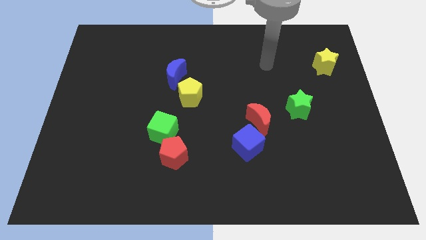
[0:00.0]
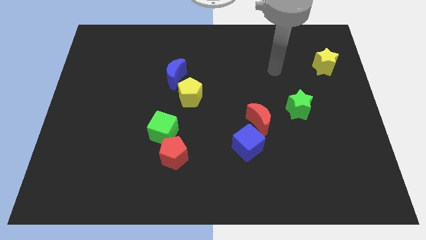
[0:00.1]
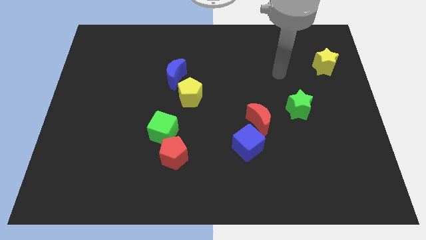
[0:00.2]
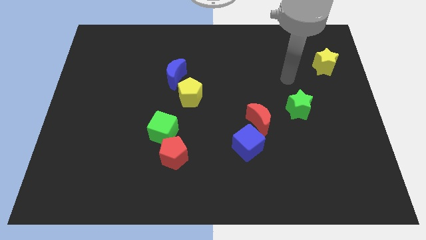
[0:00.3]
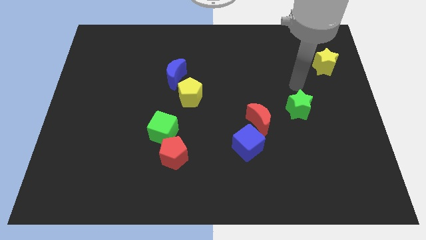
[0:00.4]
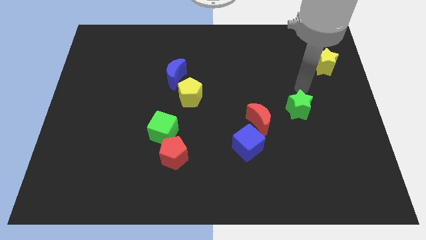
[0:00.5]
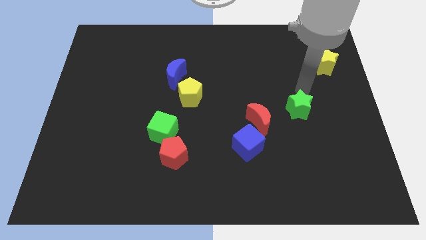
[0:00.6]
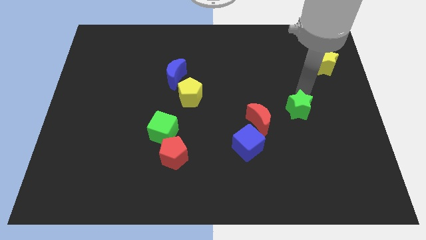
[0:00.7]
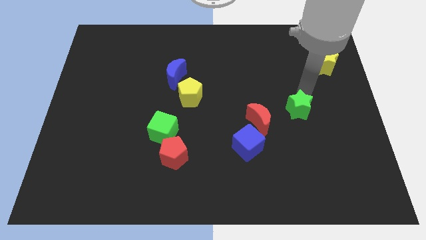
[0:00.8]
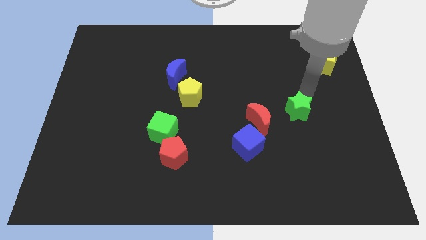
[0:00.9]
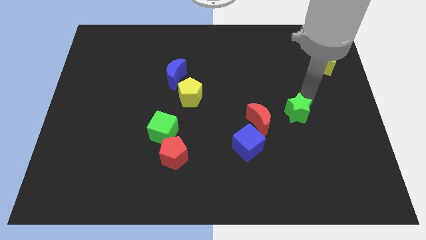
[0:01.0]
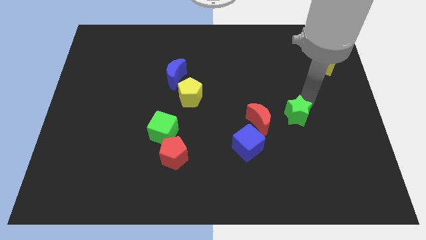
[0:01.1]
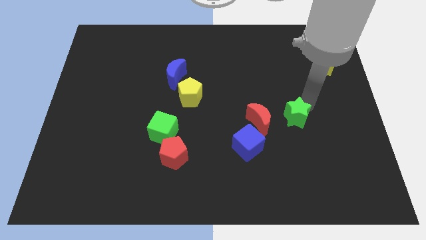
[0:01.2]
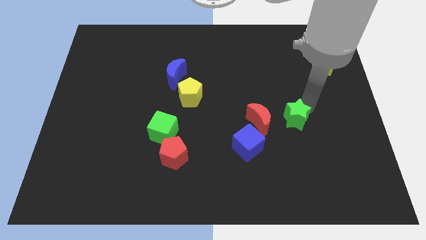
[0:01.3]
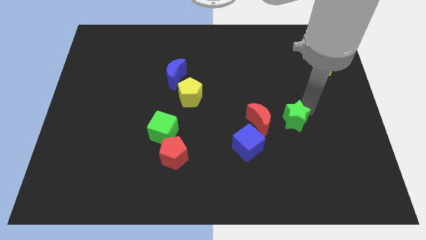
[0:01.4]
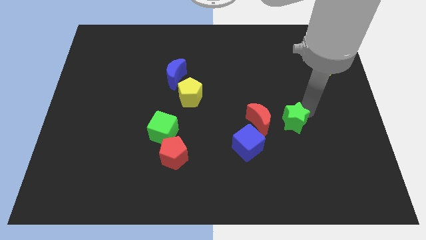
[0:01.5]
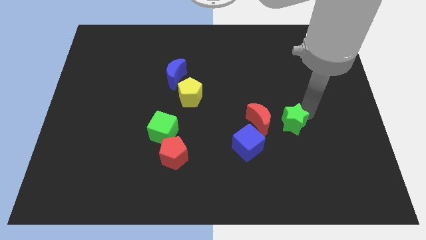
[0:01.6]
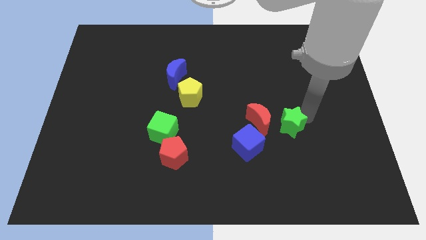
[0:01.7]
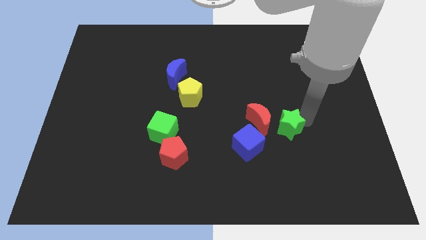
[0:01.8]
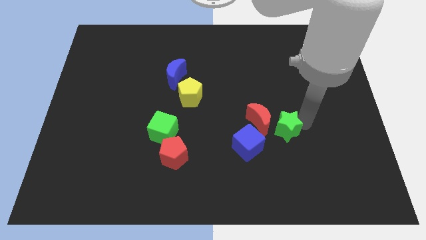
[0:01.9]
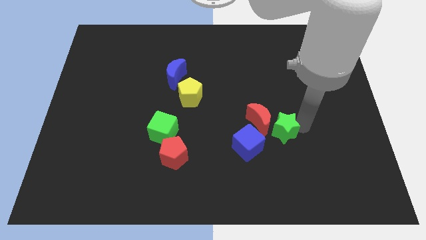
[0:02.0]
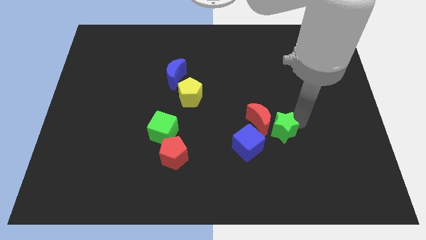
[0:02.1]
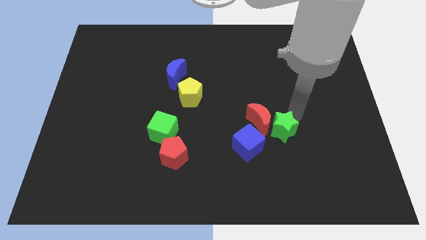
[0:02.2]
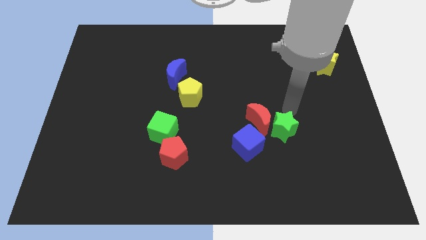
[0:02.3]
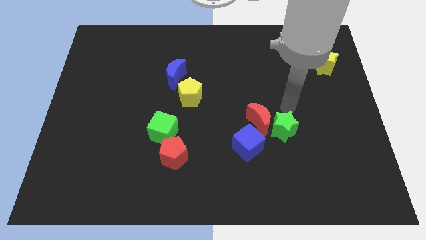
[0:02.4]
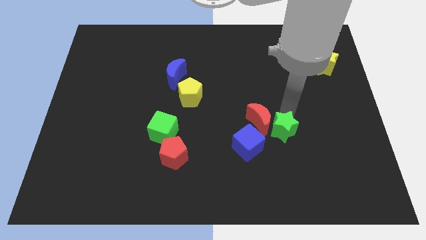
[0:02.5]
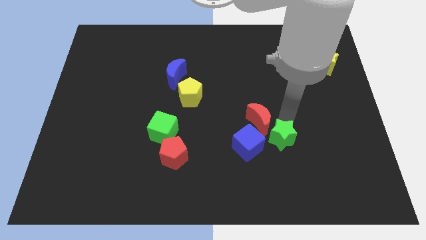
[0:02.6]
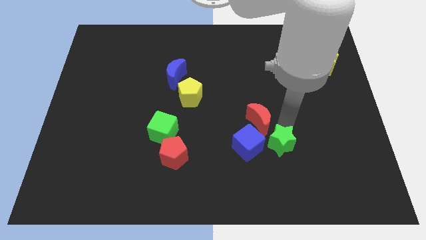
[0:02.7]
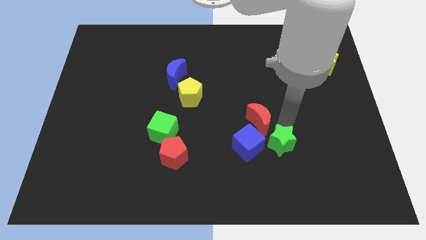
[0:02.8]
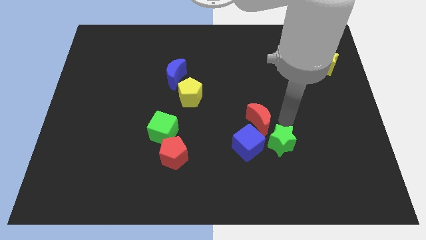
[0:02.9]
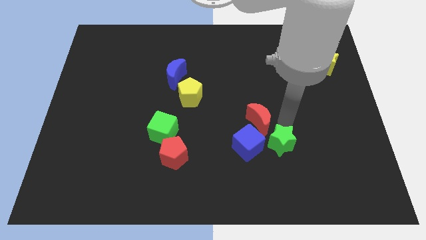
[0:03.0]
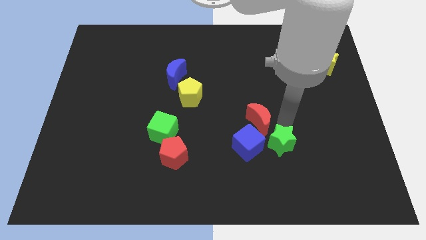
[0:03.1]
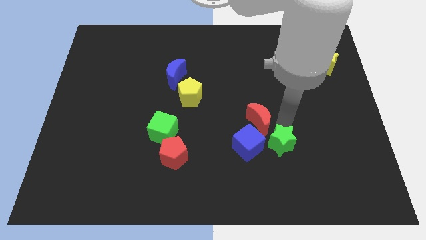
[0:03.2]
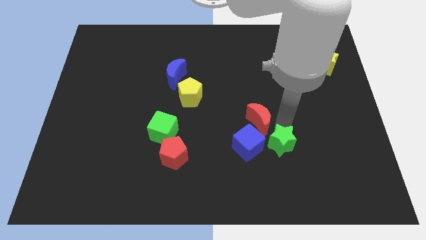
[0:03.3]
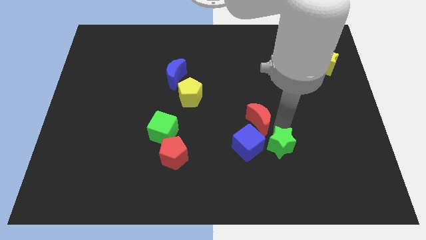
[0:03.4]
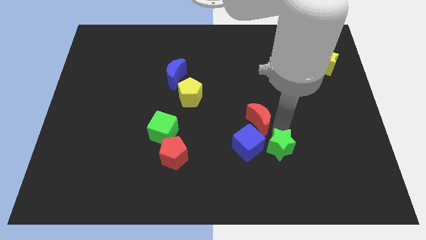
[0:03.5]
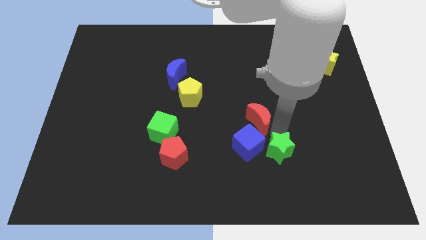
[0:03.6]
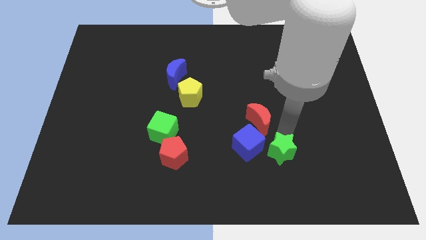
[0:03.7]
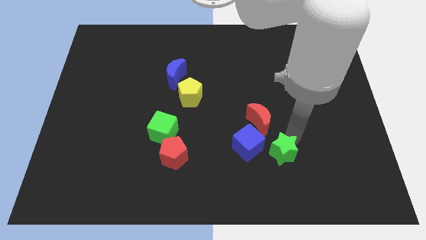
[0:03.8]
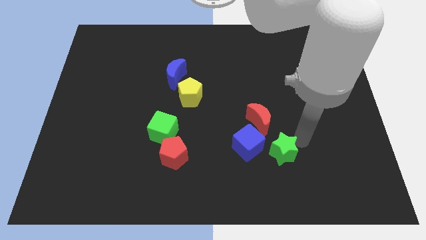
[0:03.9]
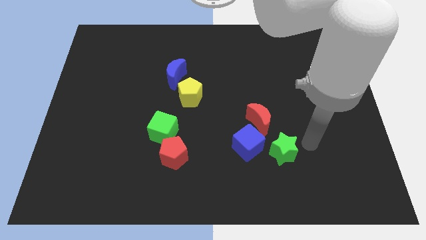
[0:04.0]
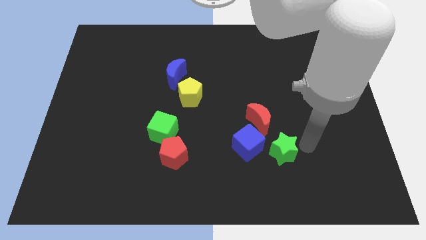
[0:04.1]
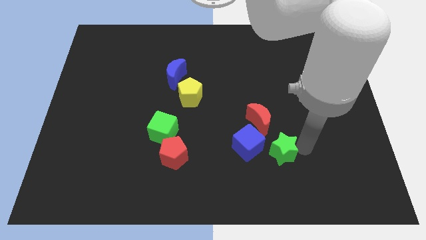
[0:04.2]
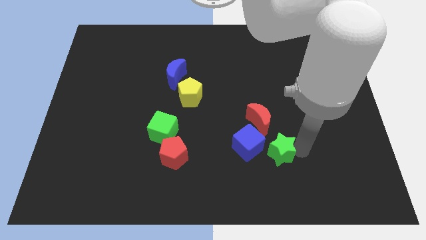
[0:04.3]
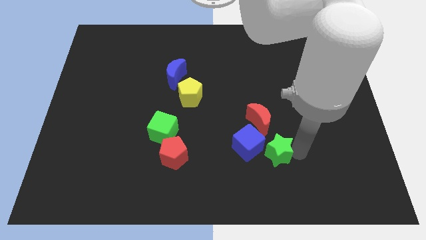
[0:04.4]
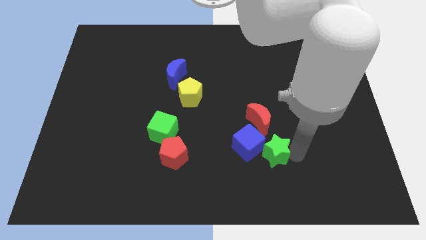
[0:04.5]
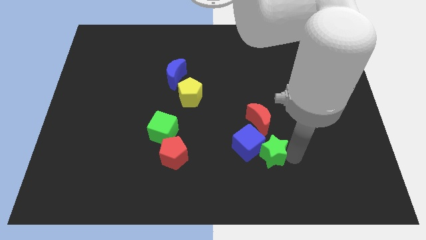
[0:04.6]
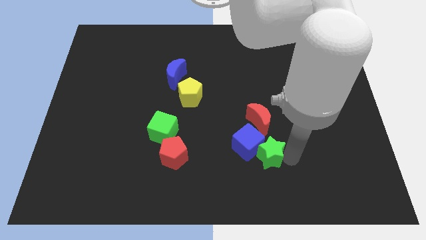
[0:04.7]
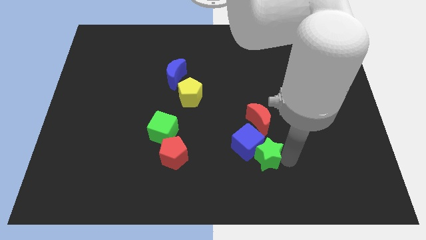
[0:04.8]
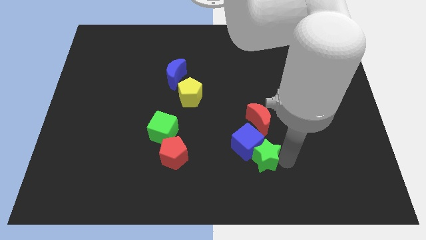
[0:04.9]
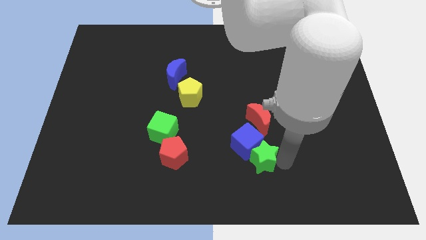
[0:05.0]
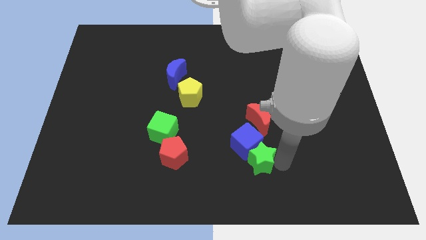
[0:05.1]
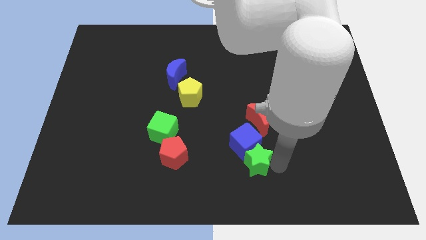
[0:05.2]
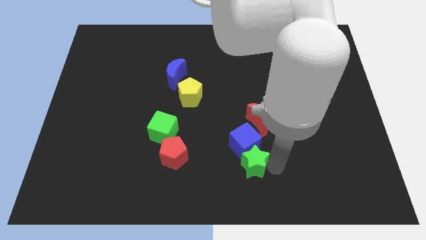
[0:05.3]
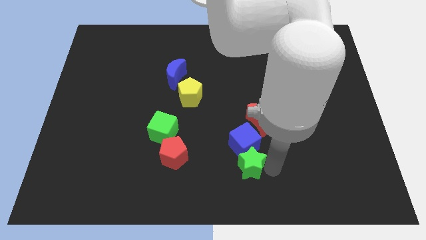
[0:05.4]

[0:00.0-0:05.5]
slide the green star diagonally down and to the left of the blue cube

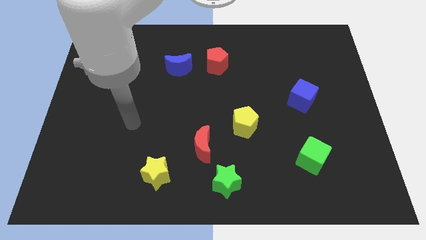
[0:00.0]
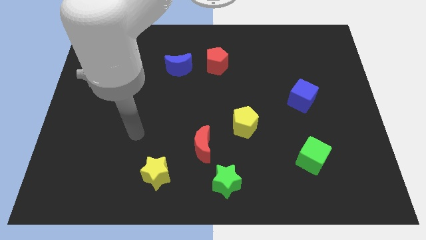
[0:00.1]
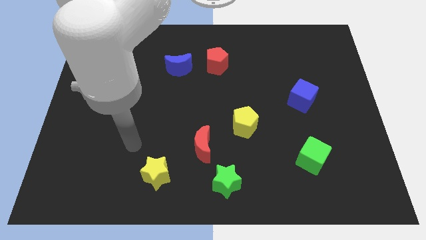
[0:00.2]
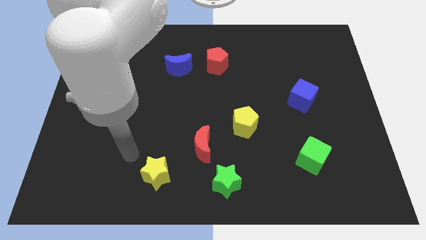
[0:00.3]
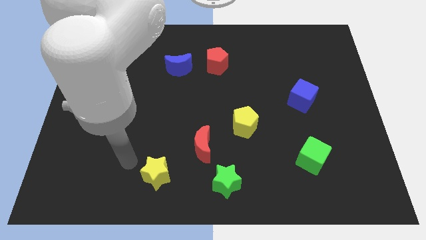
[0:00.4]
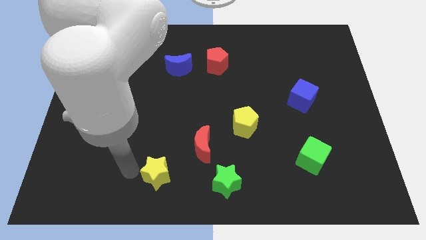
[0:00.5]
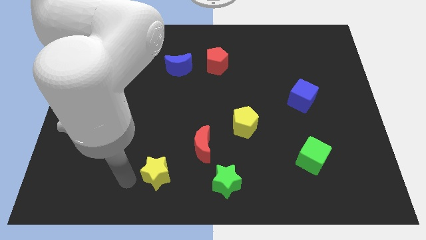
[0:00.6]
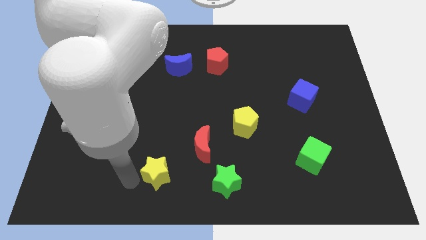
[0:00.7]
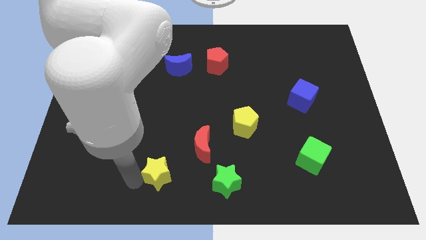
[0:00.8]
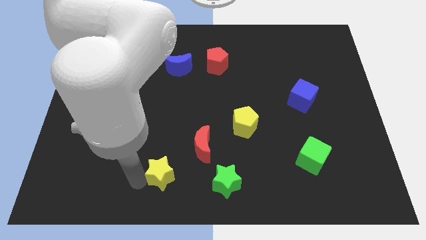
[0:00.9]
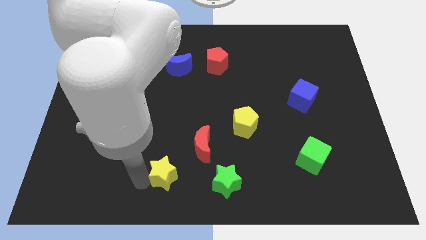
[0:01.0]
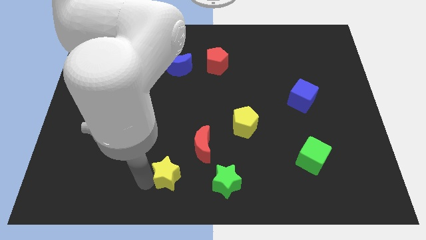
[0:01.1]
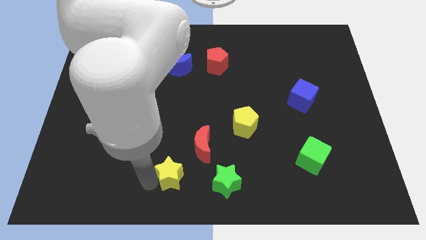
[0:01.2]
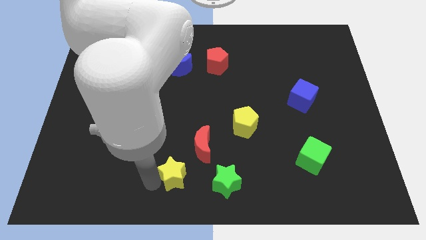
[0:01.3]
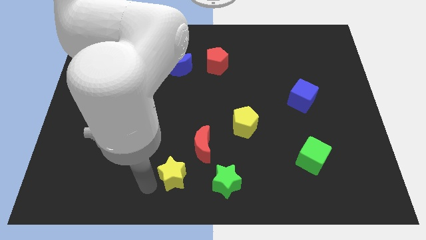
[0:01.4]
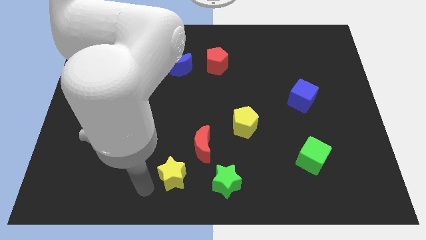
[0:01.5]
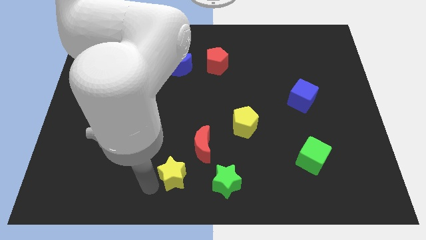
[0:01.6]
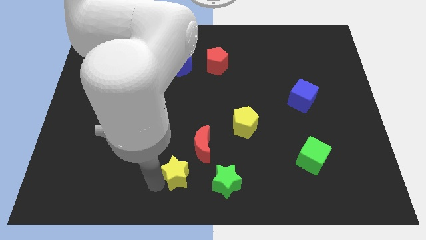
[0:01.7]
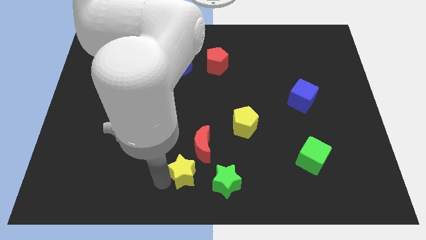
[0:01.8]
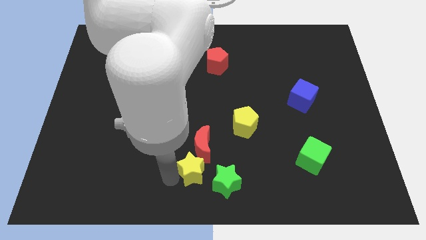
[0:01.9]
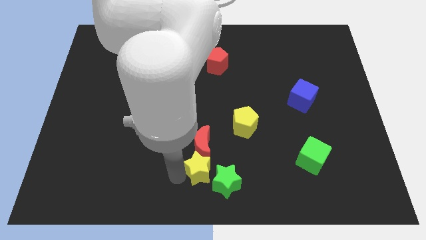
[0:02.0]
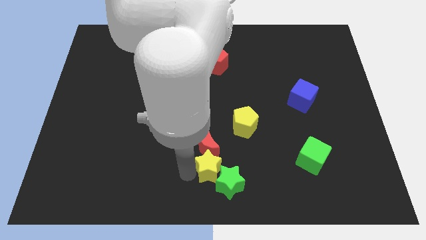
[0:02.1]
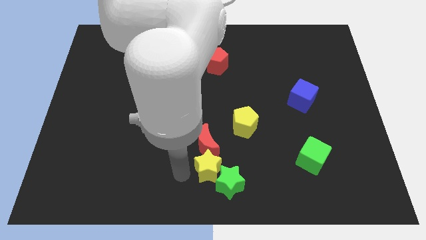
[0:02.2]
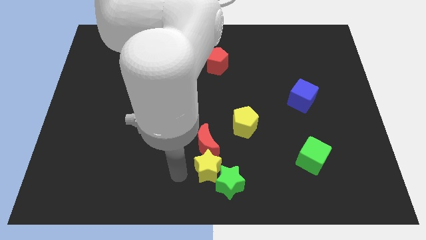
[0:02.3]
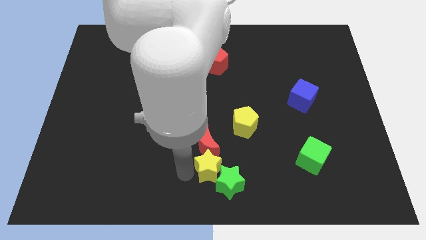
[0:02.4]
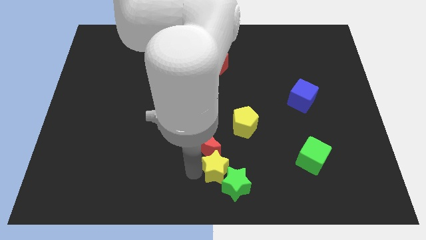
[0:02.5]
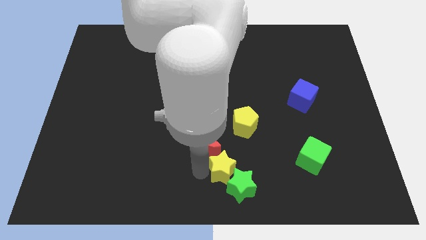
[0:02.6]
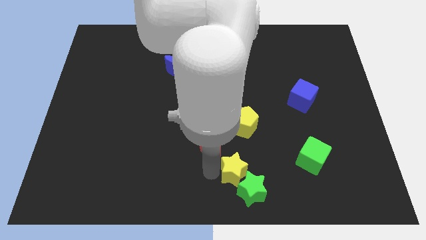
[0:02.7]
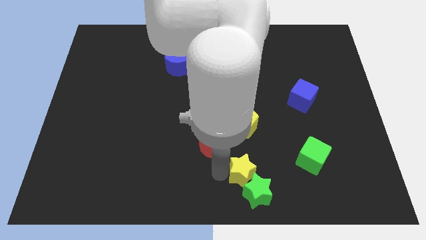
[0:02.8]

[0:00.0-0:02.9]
move the yellow star to the left of the green cube
